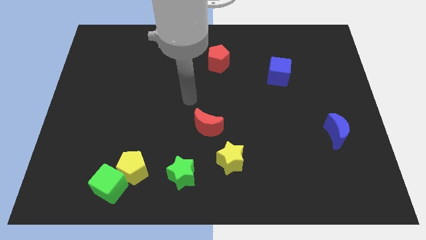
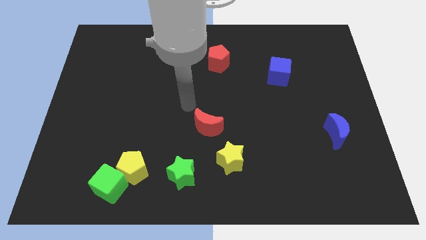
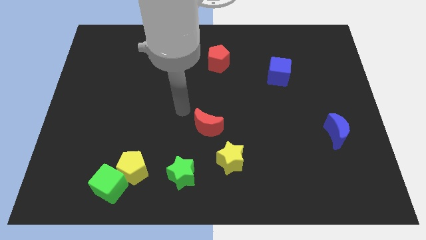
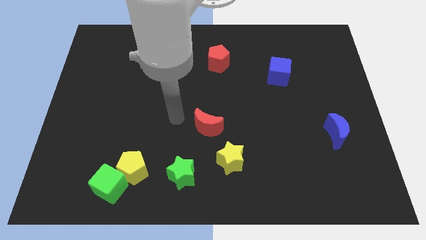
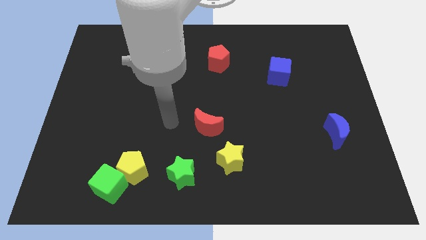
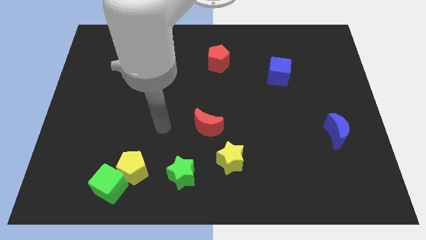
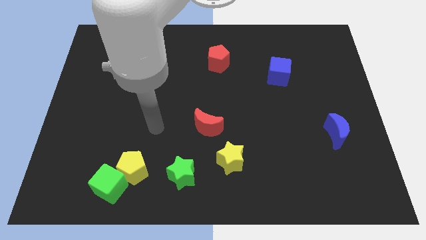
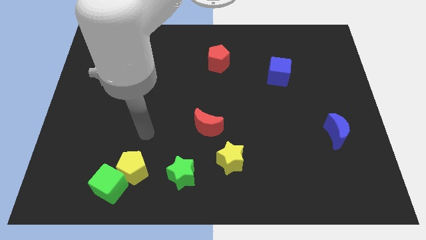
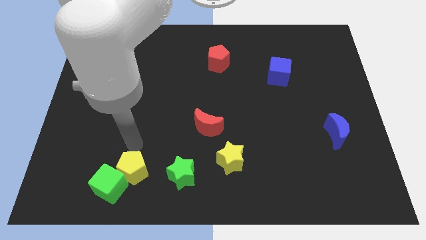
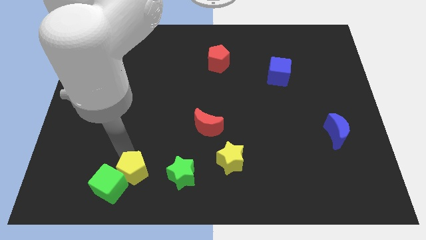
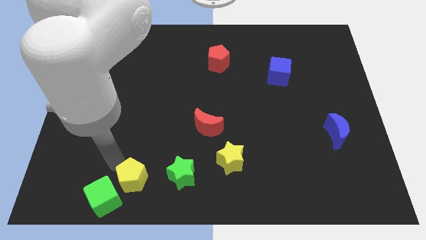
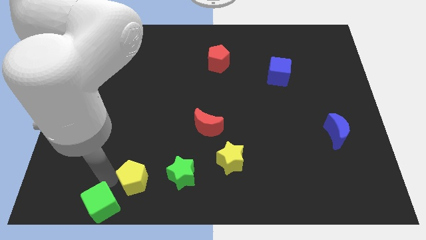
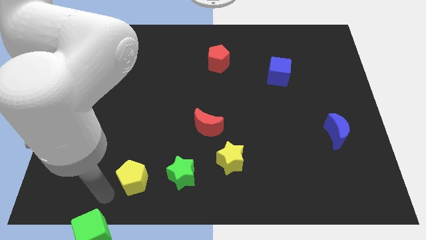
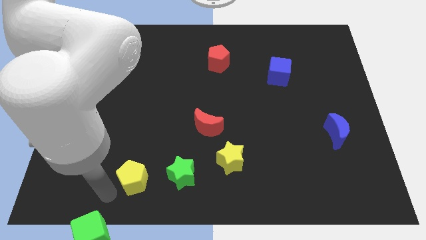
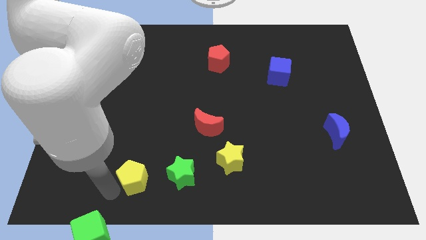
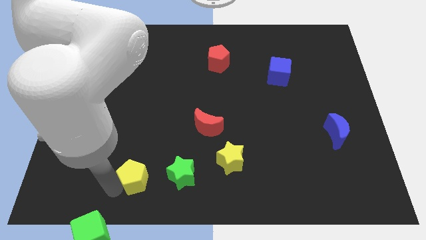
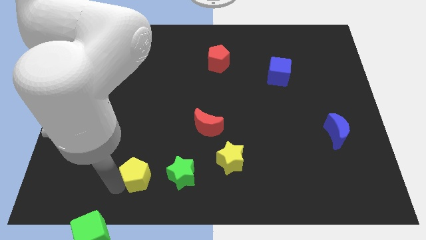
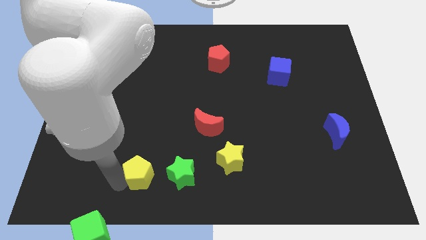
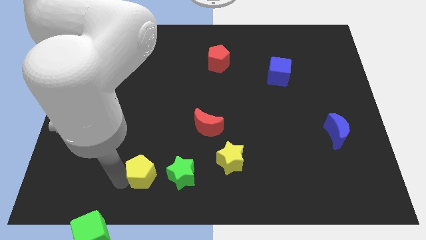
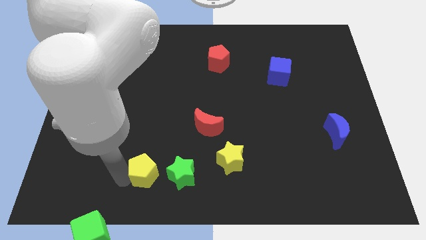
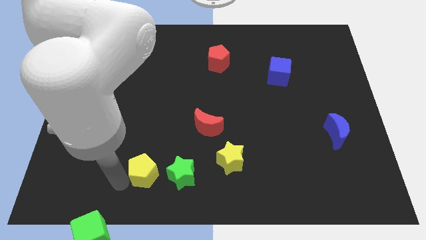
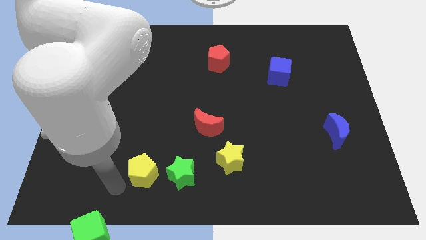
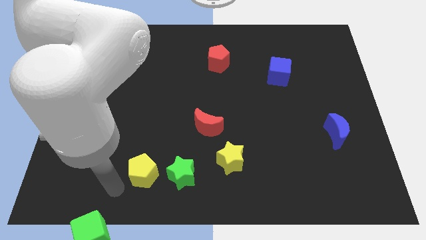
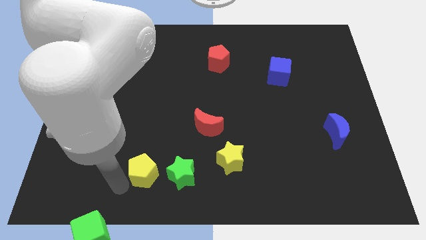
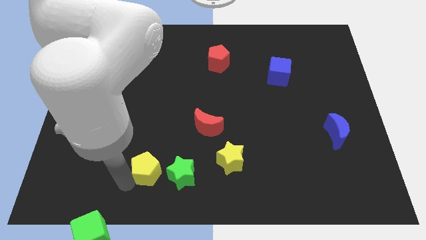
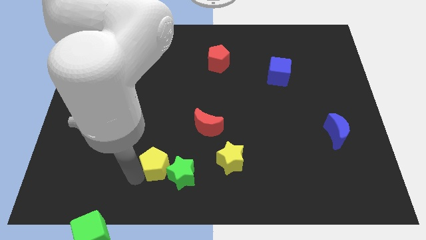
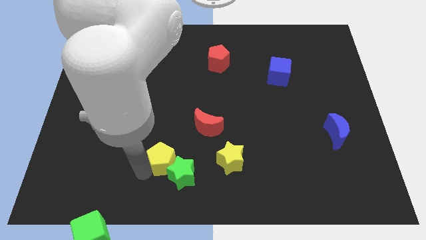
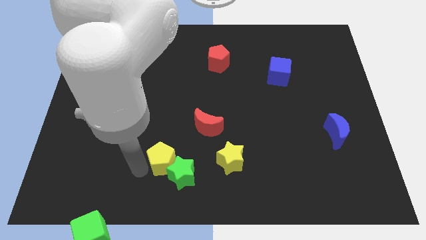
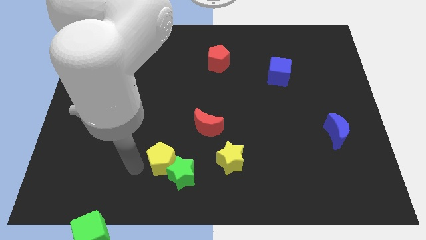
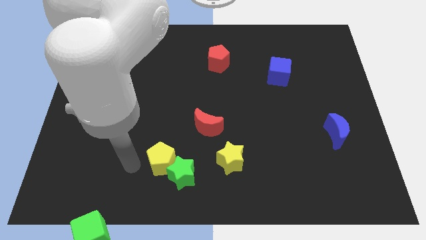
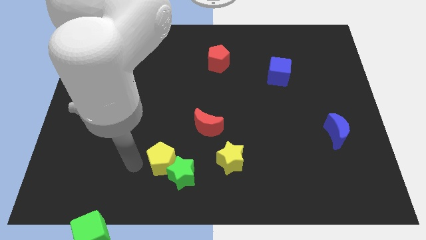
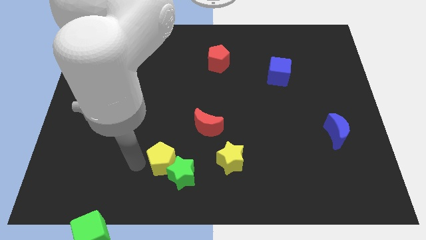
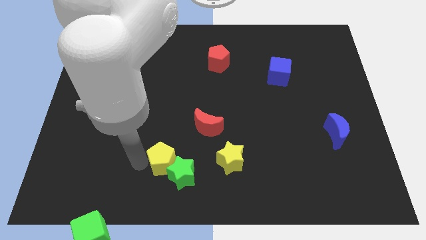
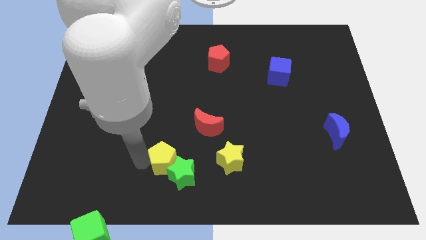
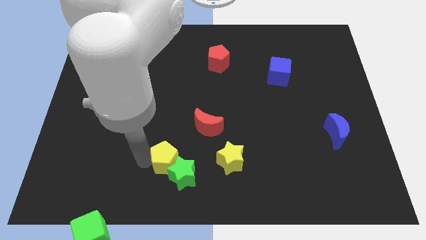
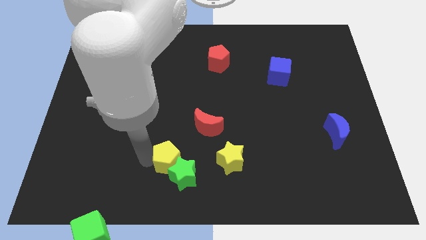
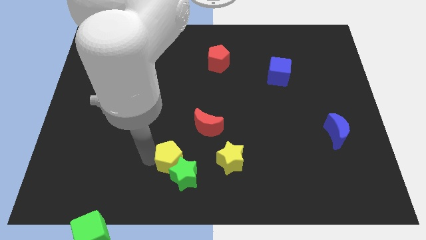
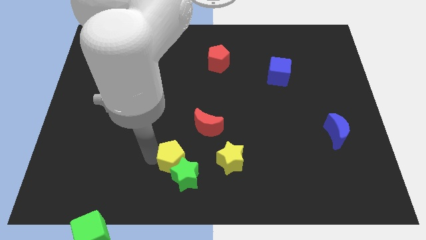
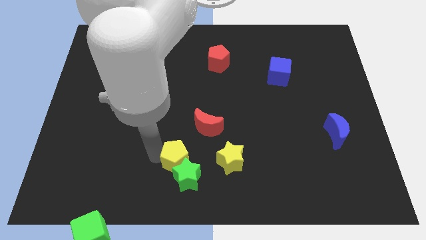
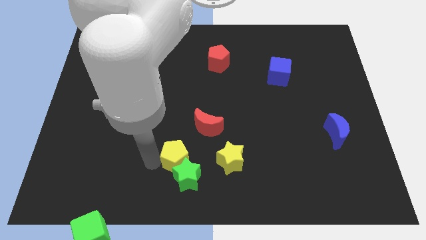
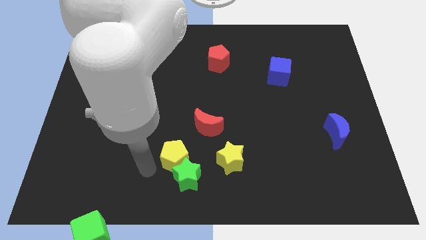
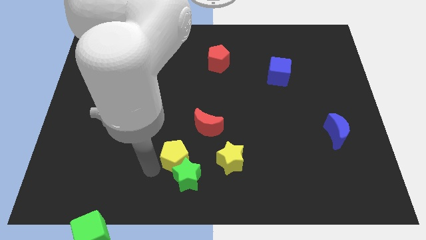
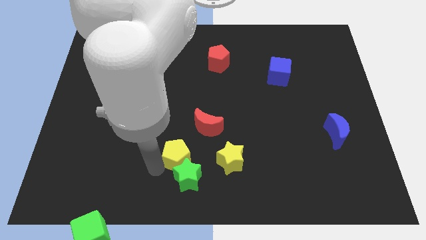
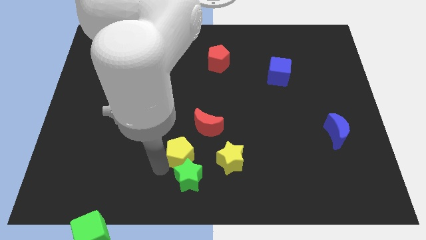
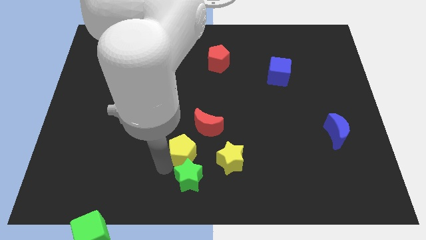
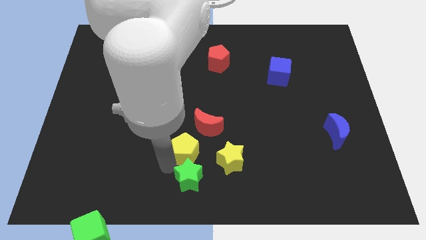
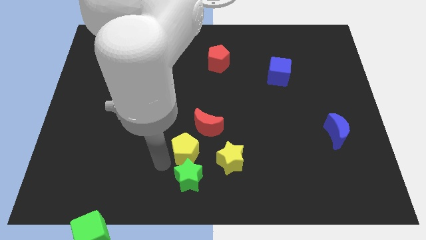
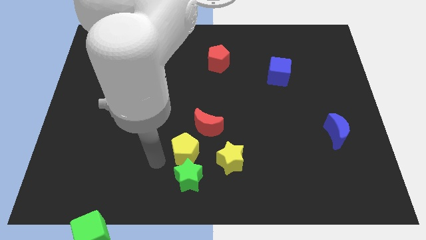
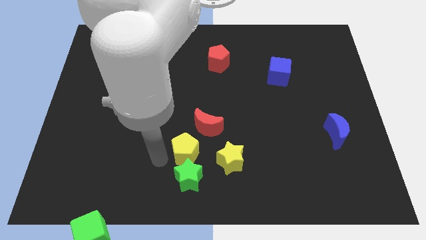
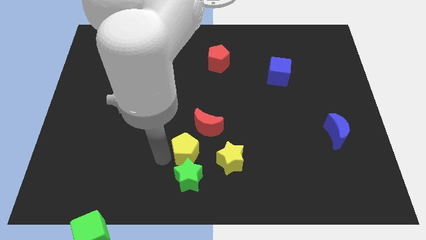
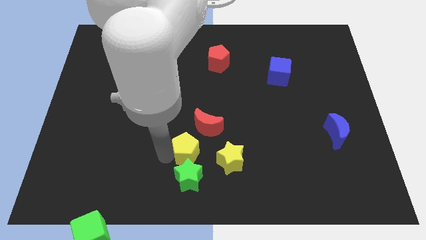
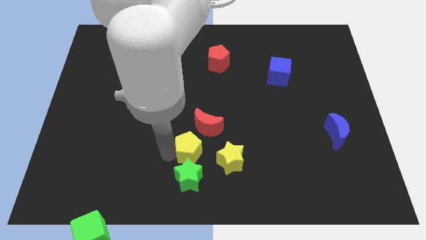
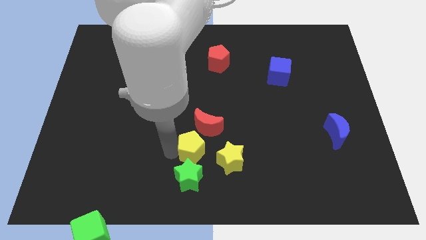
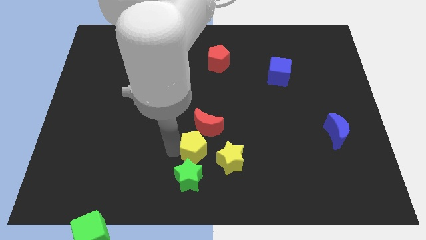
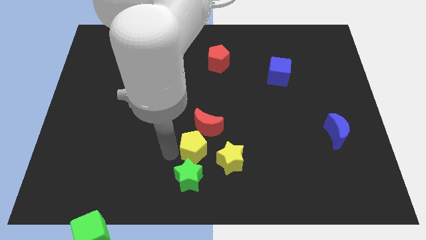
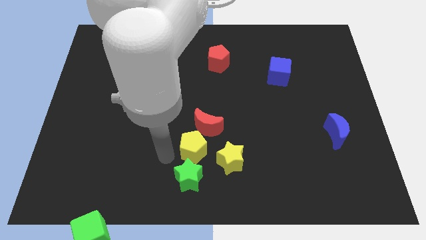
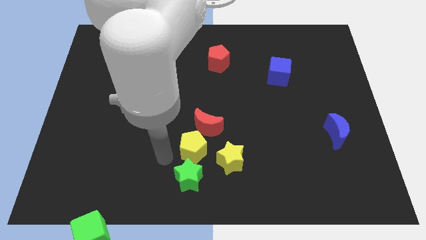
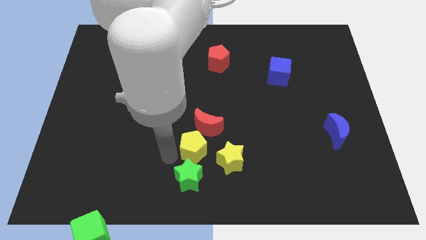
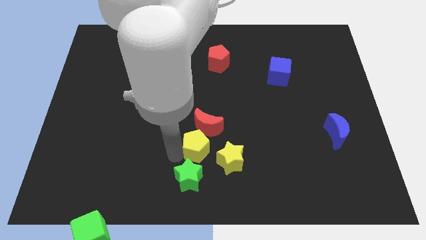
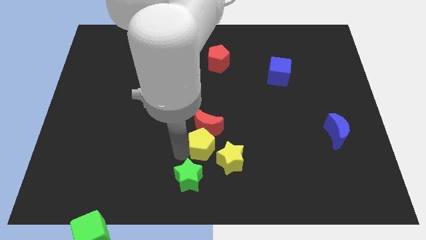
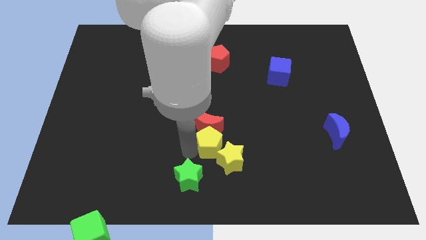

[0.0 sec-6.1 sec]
move the yellow pentagon to the top side of the yellow star
